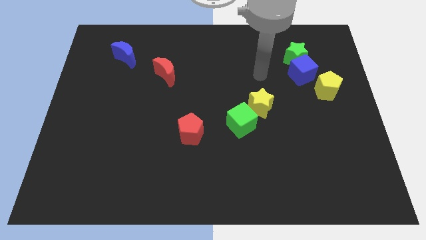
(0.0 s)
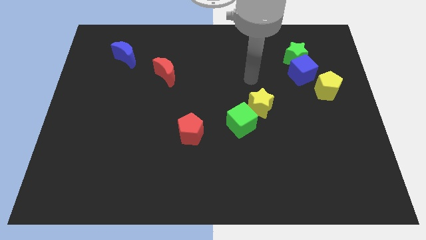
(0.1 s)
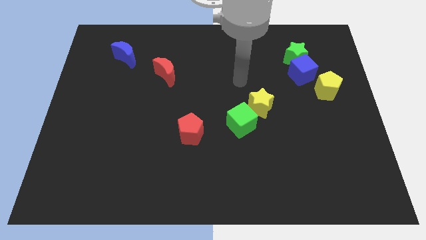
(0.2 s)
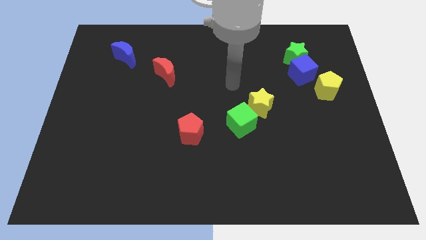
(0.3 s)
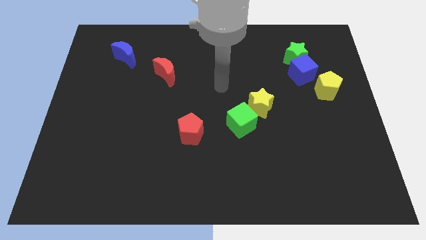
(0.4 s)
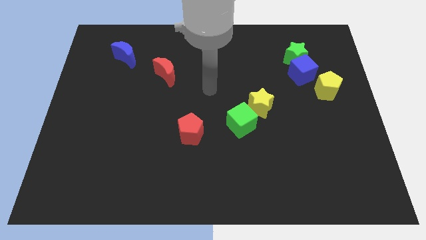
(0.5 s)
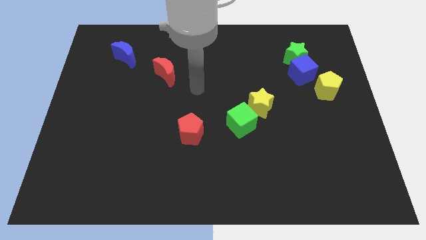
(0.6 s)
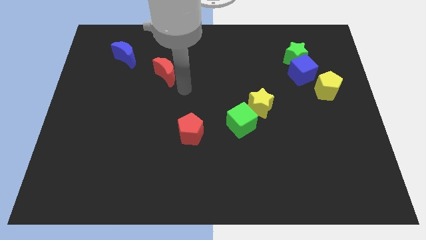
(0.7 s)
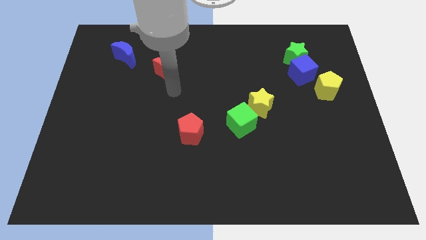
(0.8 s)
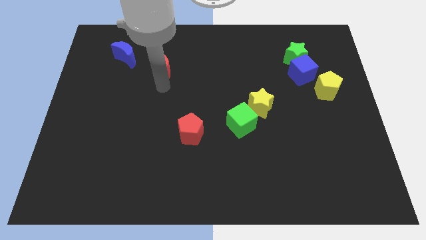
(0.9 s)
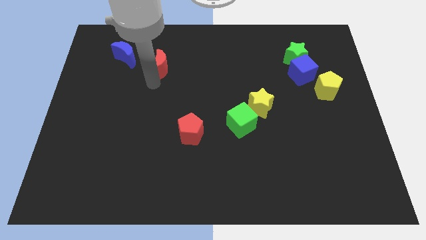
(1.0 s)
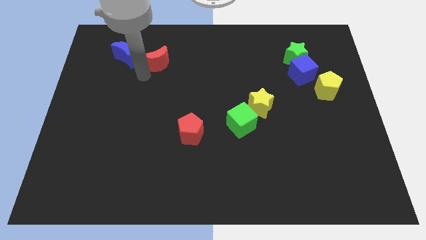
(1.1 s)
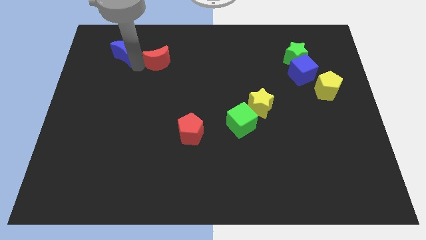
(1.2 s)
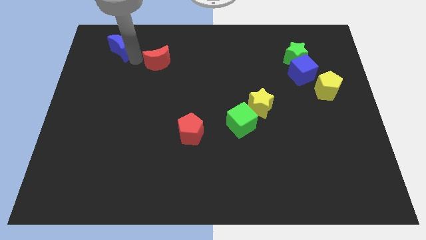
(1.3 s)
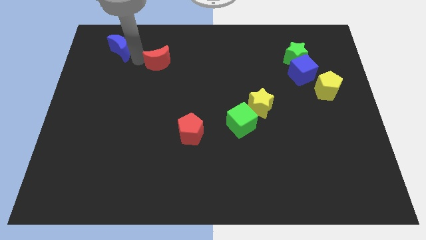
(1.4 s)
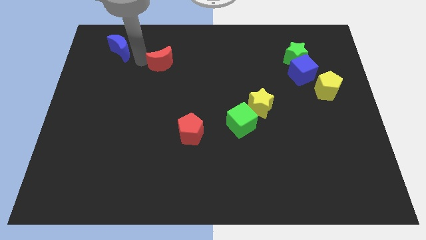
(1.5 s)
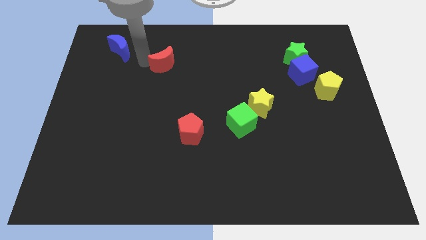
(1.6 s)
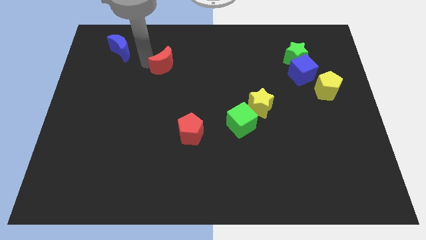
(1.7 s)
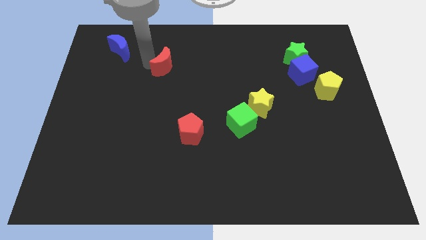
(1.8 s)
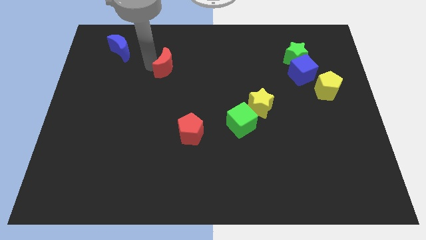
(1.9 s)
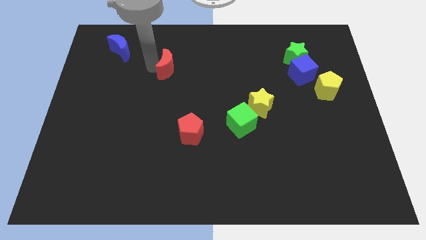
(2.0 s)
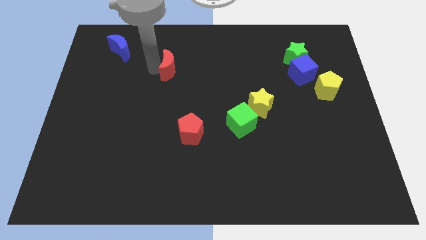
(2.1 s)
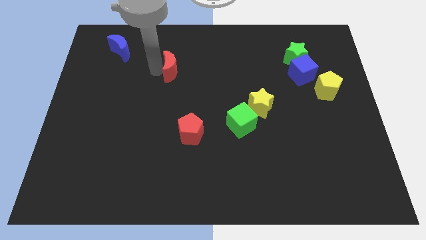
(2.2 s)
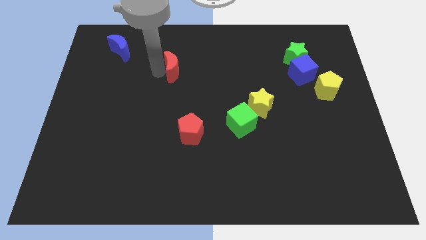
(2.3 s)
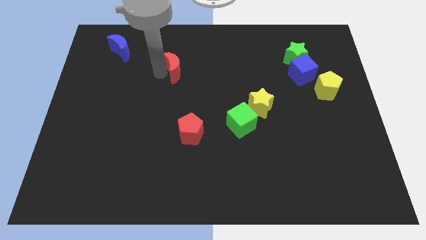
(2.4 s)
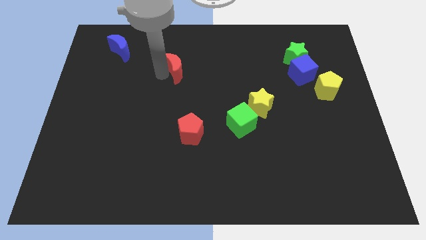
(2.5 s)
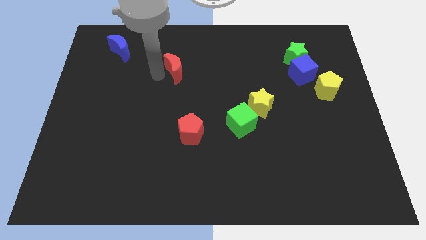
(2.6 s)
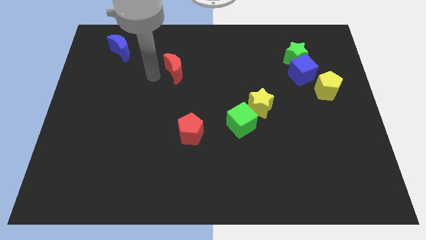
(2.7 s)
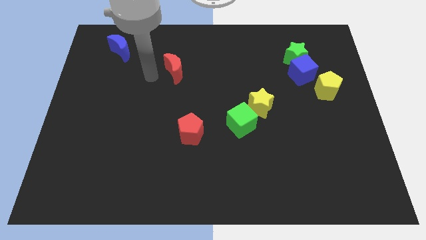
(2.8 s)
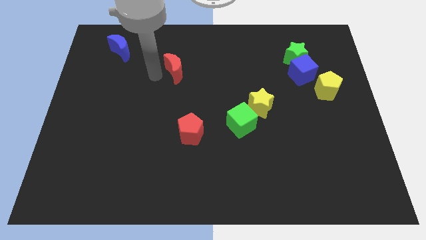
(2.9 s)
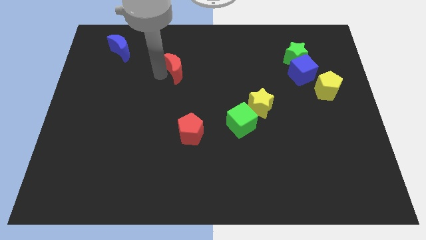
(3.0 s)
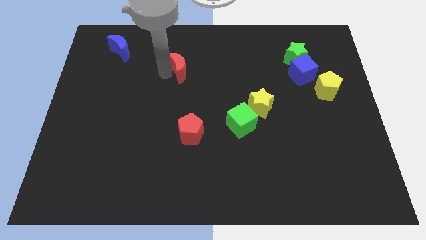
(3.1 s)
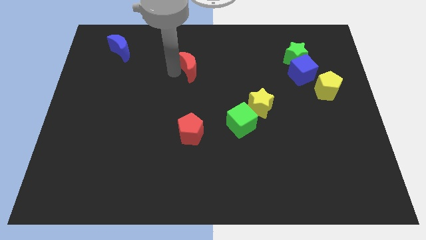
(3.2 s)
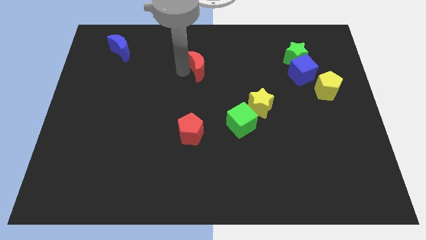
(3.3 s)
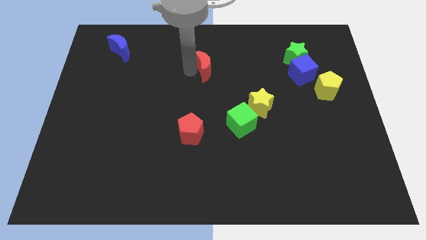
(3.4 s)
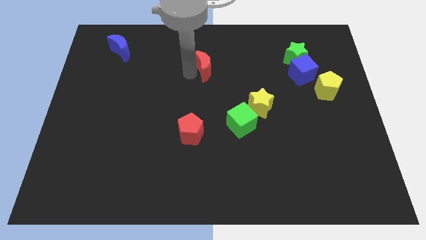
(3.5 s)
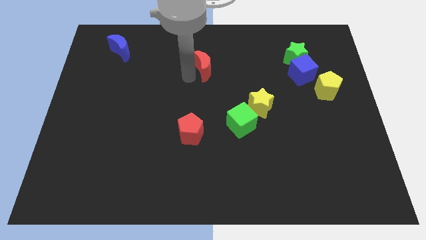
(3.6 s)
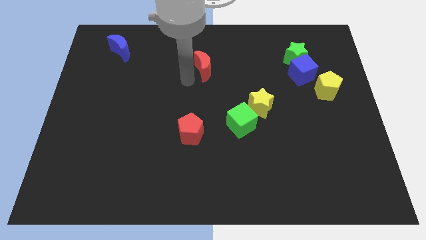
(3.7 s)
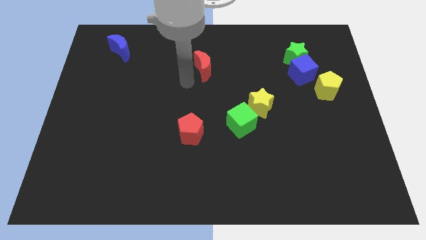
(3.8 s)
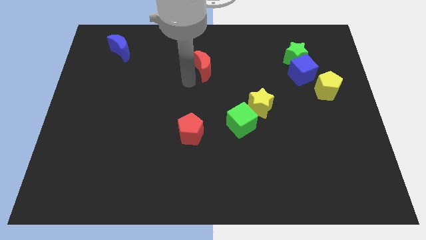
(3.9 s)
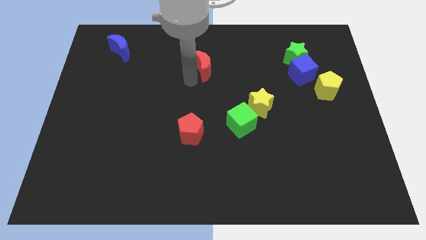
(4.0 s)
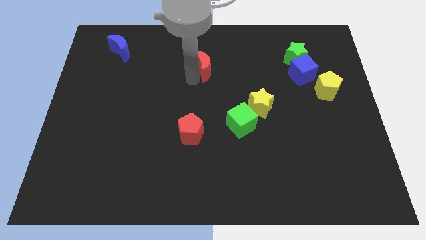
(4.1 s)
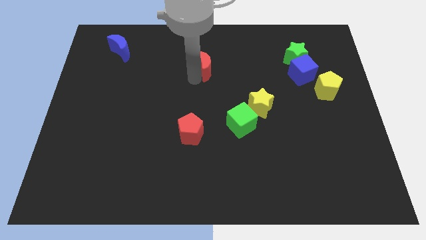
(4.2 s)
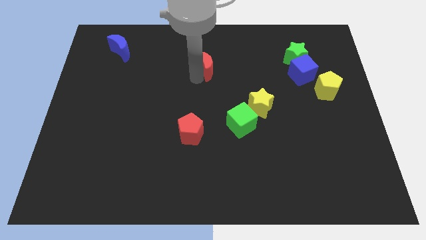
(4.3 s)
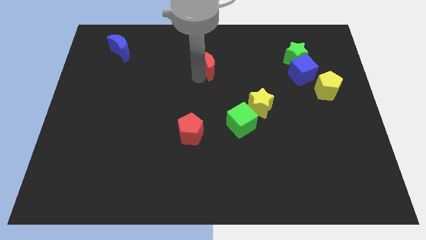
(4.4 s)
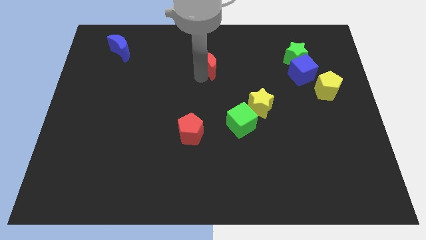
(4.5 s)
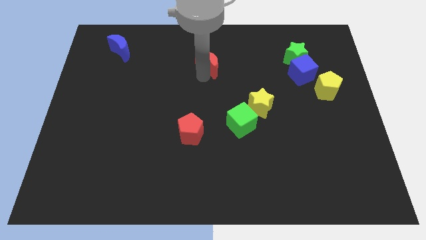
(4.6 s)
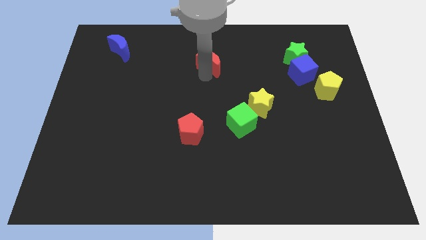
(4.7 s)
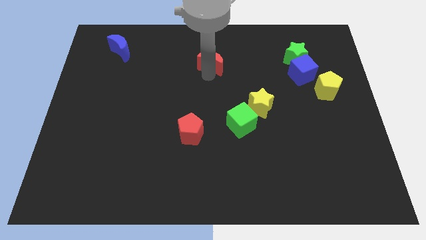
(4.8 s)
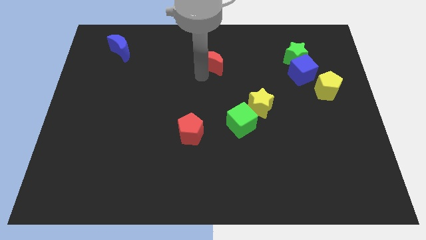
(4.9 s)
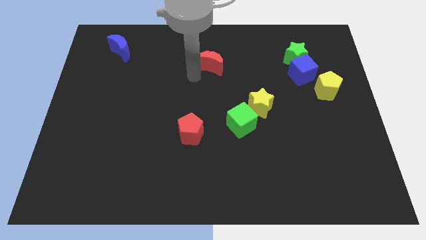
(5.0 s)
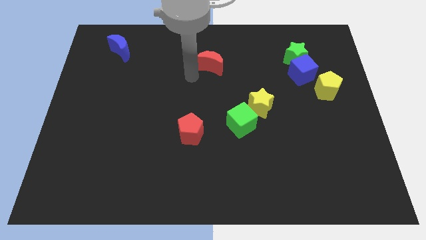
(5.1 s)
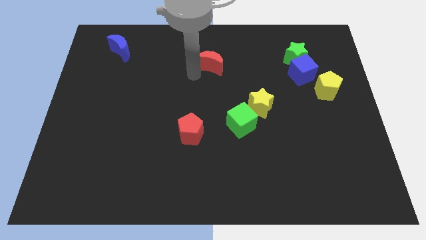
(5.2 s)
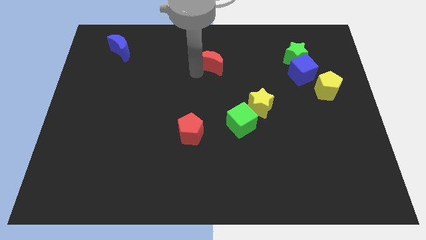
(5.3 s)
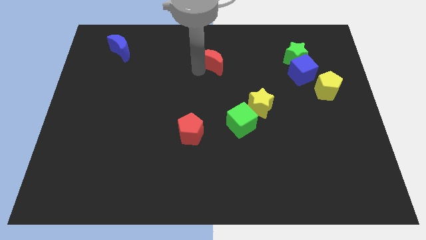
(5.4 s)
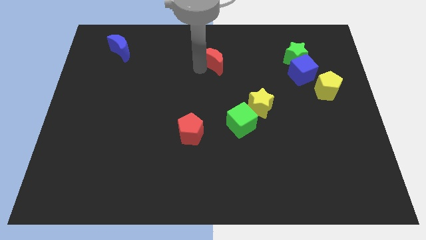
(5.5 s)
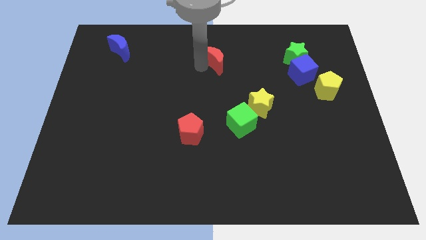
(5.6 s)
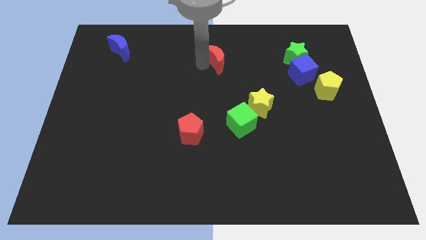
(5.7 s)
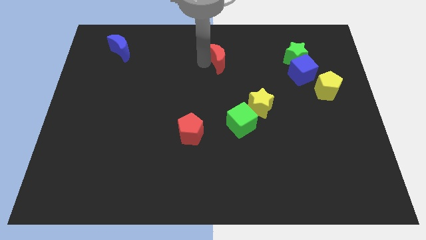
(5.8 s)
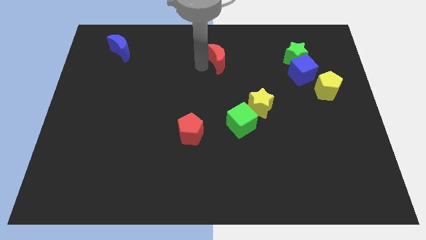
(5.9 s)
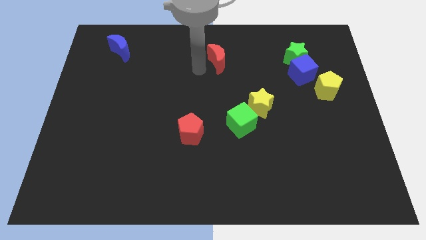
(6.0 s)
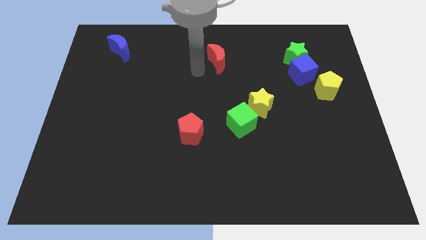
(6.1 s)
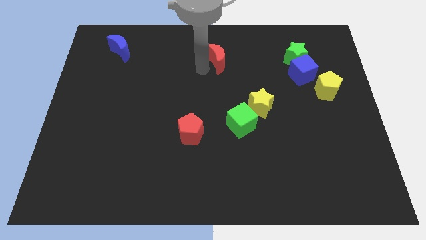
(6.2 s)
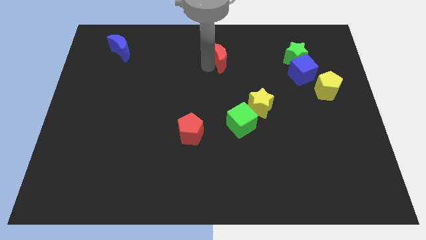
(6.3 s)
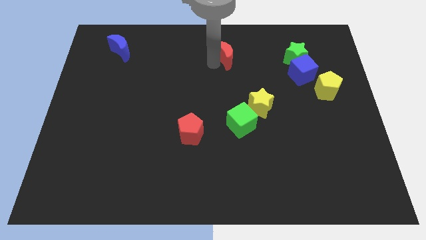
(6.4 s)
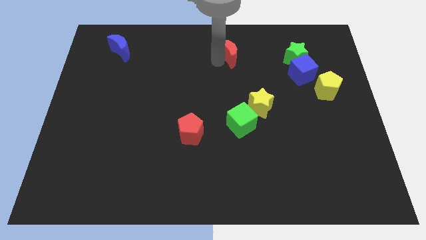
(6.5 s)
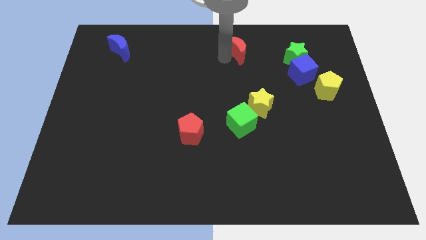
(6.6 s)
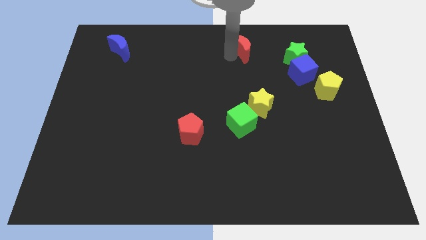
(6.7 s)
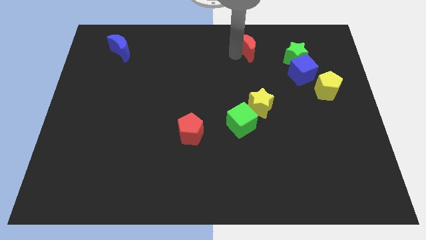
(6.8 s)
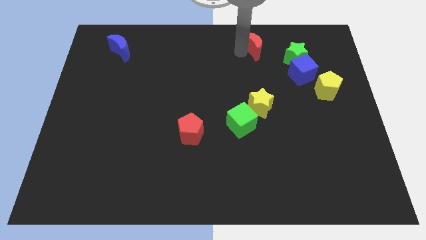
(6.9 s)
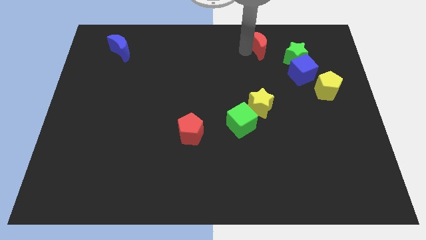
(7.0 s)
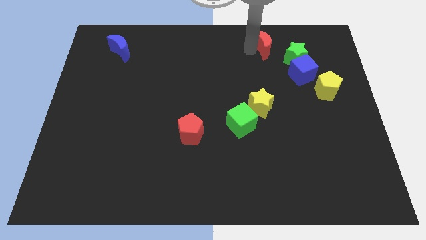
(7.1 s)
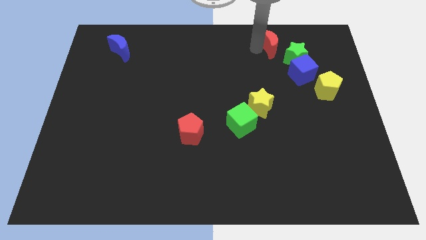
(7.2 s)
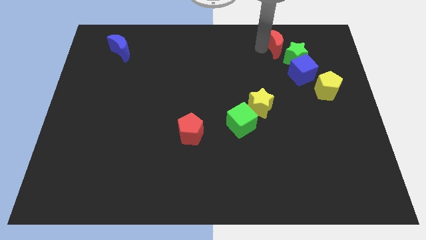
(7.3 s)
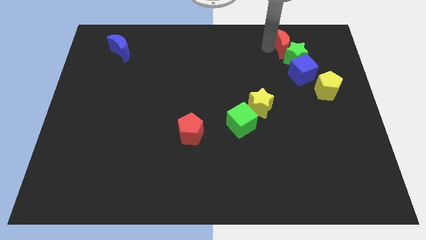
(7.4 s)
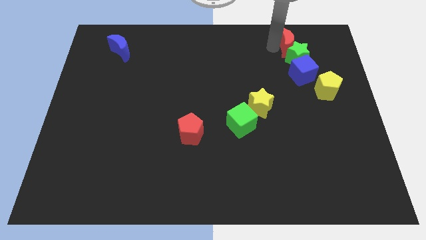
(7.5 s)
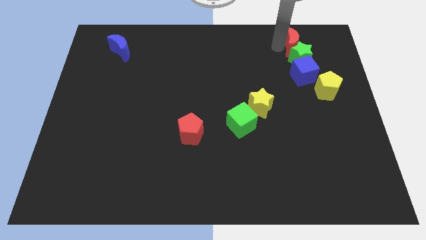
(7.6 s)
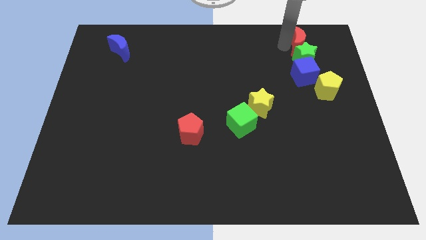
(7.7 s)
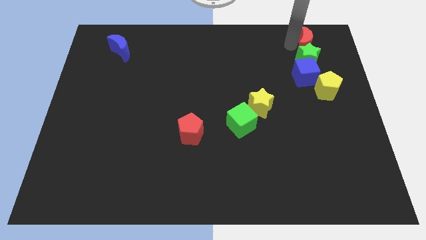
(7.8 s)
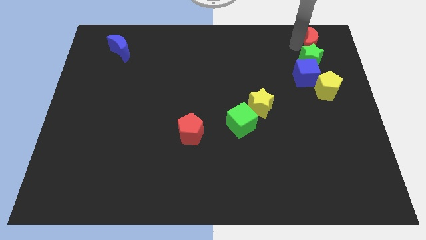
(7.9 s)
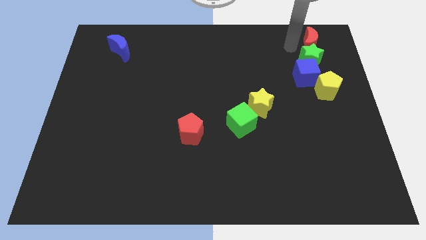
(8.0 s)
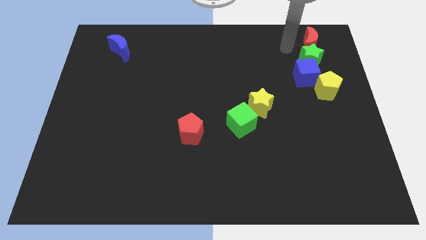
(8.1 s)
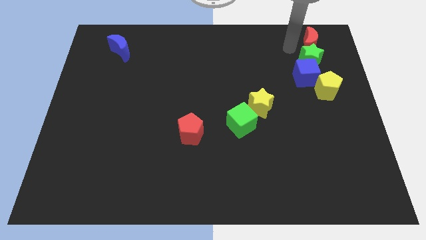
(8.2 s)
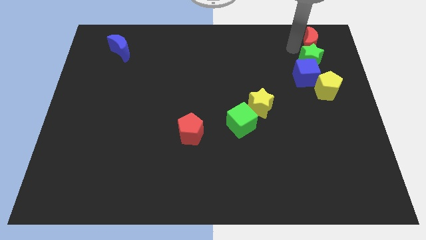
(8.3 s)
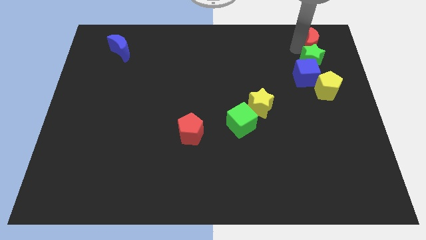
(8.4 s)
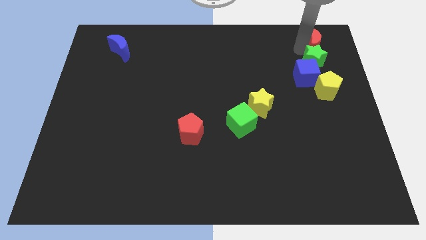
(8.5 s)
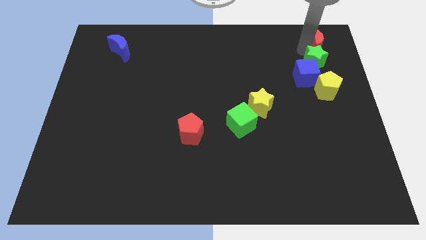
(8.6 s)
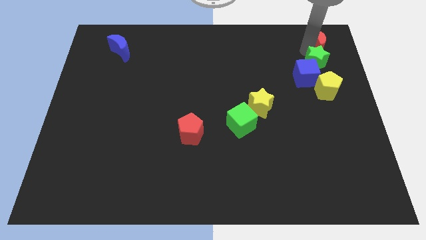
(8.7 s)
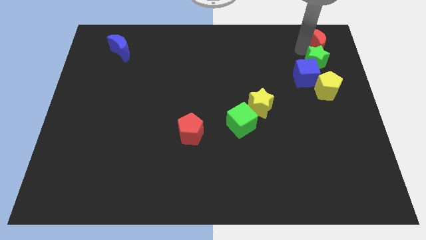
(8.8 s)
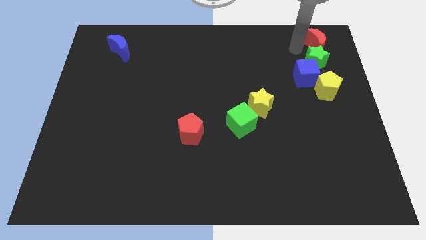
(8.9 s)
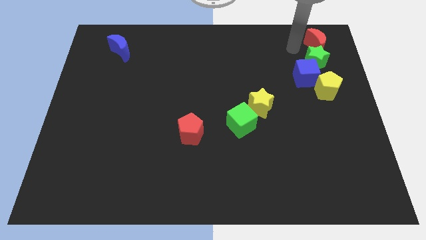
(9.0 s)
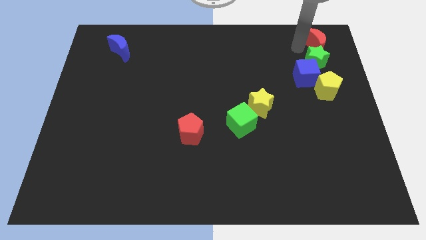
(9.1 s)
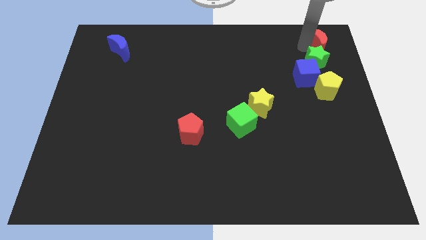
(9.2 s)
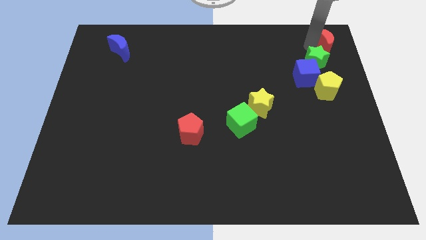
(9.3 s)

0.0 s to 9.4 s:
move the red moon to the top right corner
